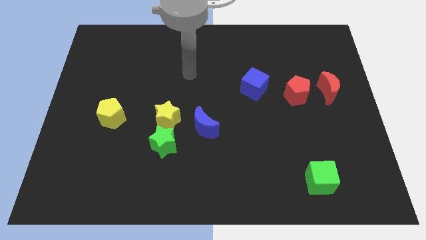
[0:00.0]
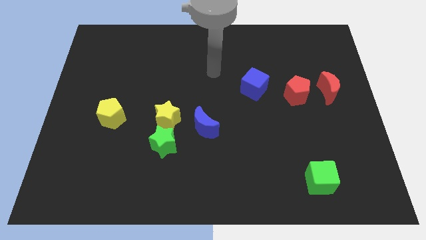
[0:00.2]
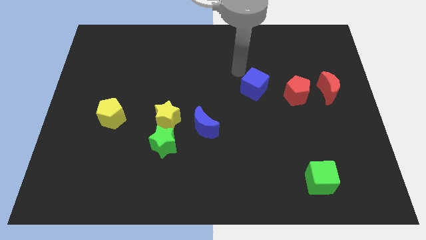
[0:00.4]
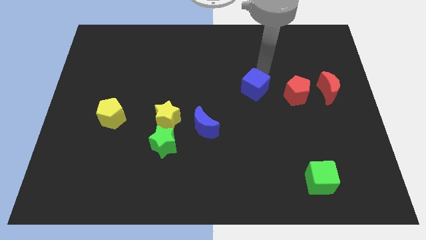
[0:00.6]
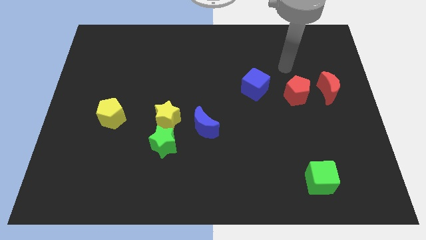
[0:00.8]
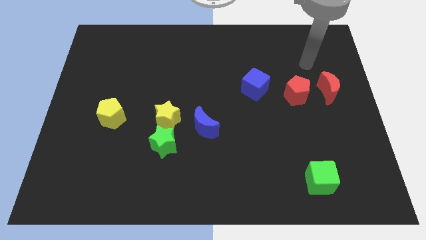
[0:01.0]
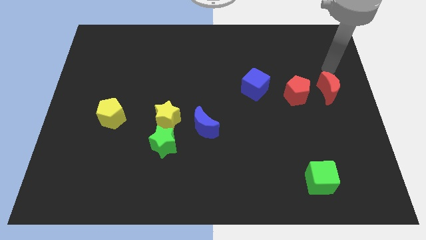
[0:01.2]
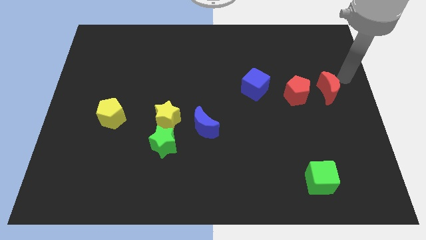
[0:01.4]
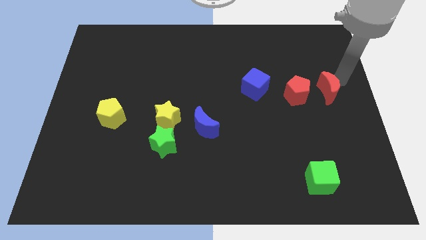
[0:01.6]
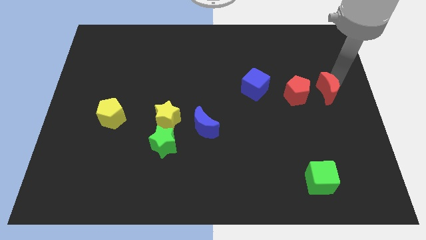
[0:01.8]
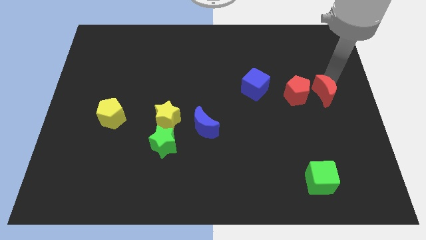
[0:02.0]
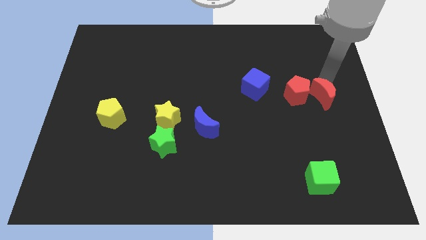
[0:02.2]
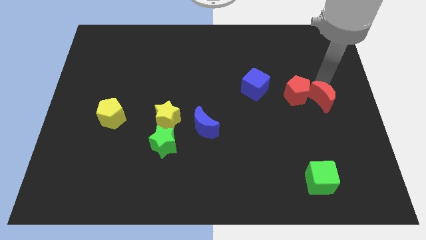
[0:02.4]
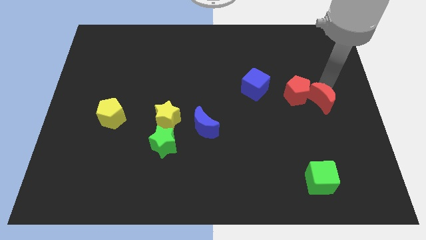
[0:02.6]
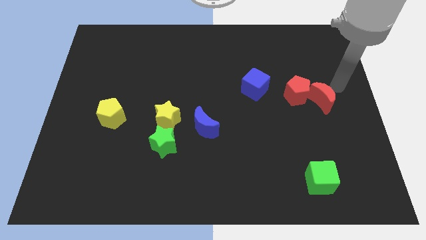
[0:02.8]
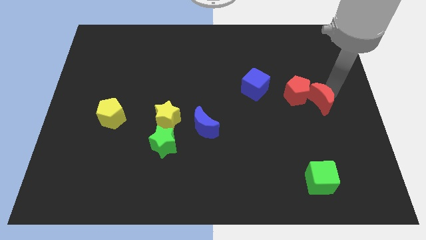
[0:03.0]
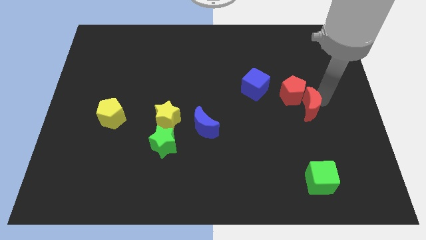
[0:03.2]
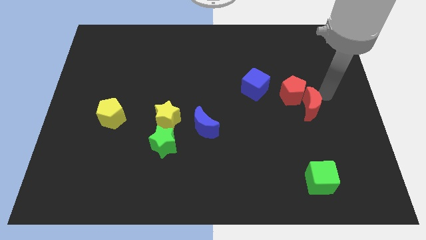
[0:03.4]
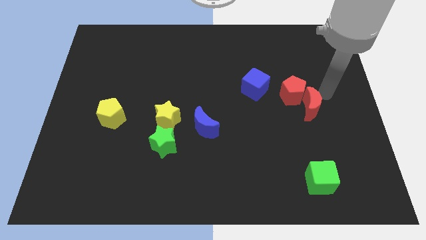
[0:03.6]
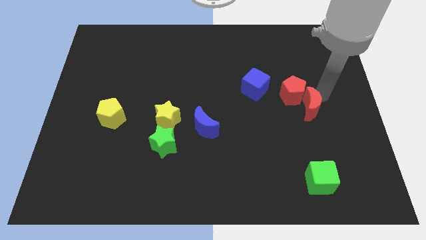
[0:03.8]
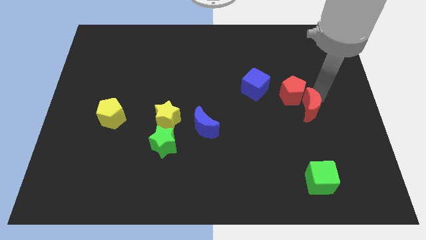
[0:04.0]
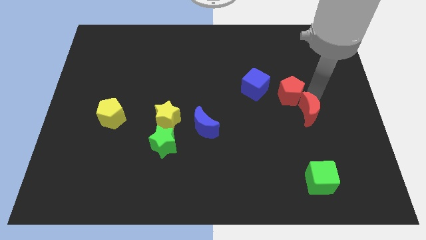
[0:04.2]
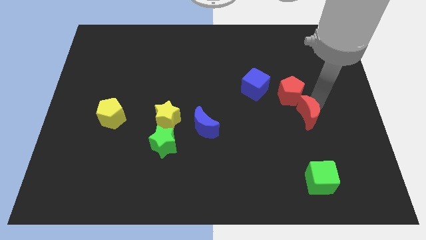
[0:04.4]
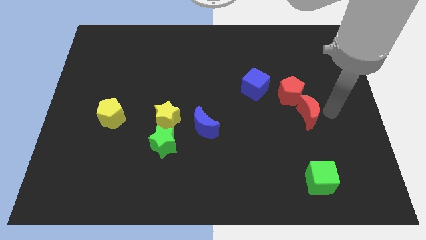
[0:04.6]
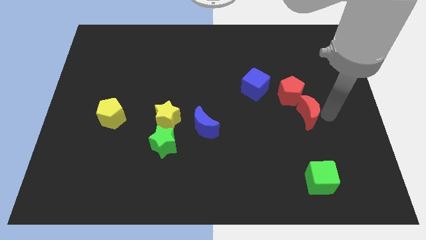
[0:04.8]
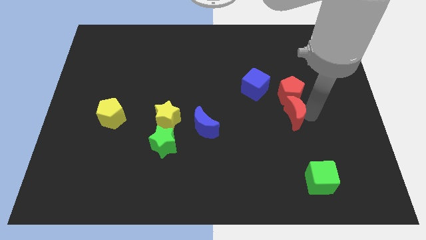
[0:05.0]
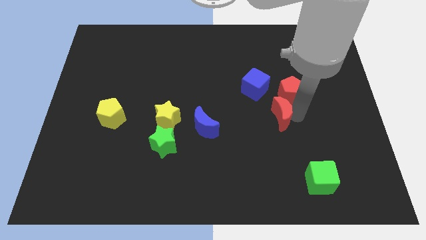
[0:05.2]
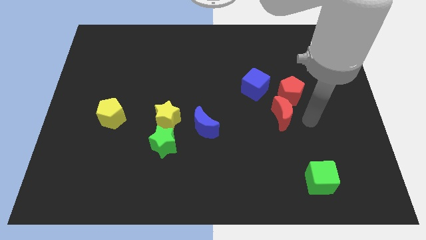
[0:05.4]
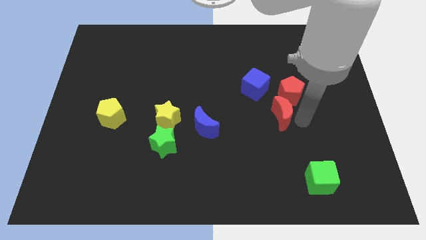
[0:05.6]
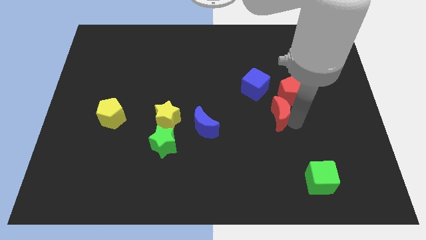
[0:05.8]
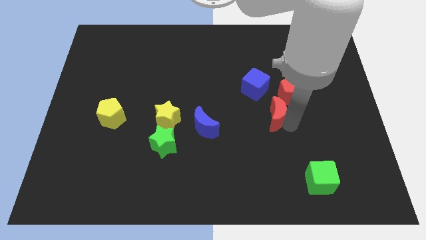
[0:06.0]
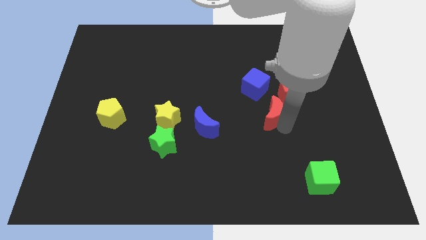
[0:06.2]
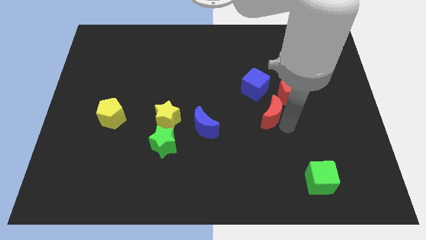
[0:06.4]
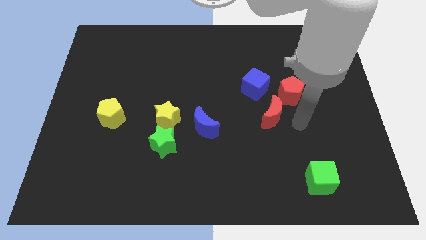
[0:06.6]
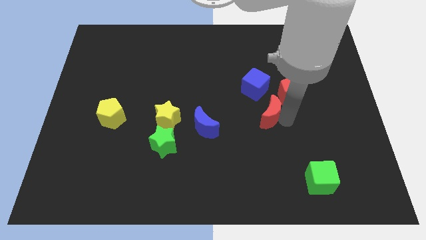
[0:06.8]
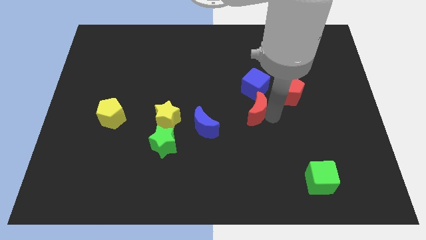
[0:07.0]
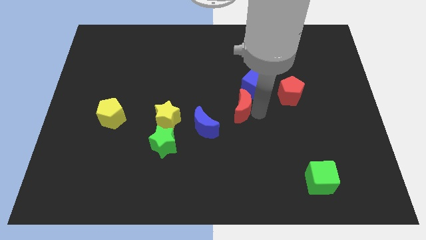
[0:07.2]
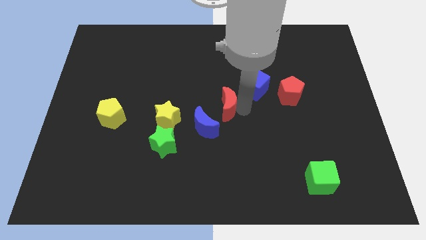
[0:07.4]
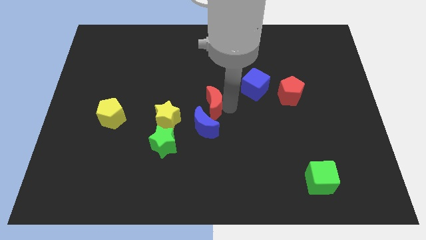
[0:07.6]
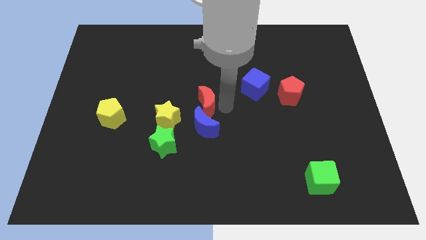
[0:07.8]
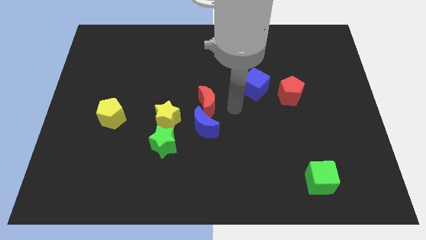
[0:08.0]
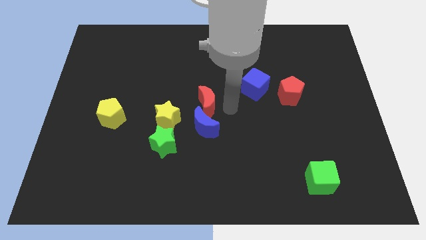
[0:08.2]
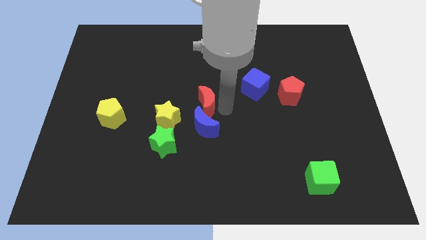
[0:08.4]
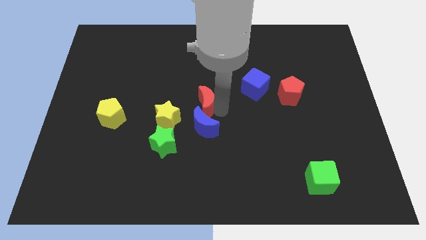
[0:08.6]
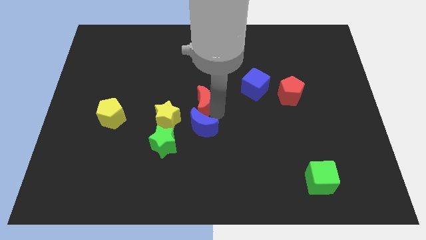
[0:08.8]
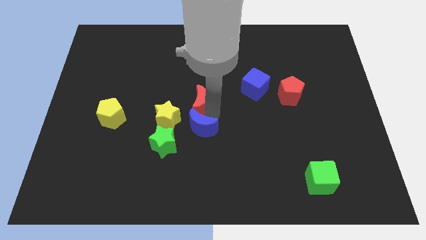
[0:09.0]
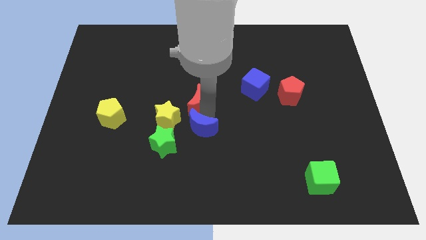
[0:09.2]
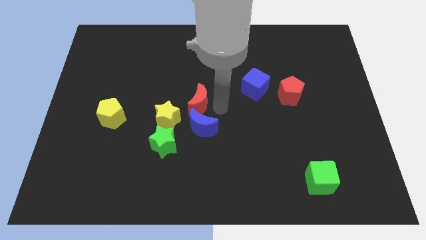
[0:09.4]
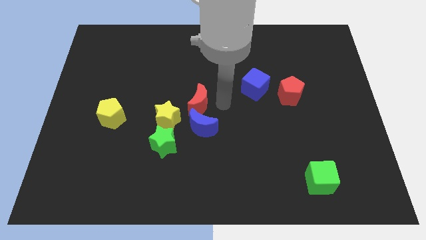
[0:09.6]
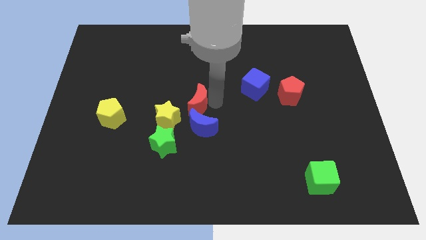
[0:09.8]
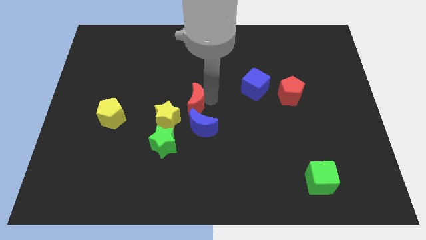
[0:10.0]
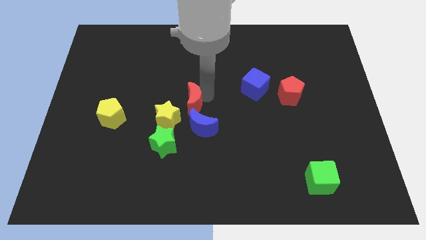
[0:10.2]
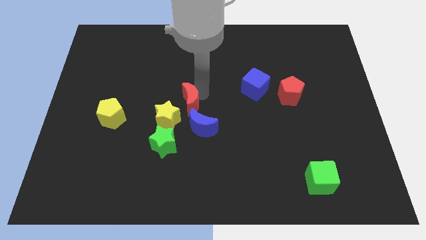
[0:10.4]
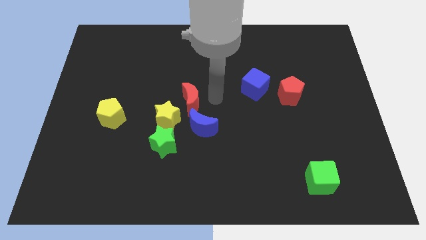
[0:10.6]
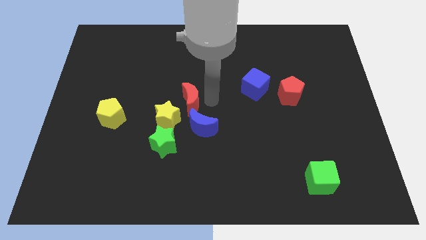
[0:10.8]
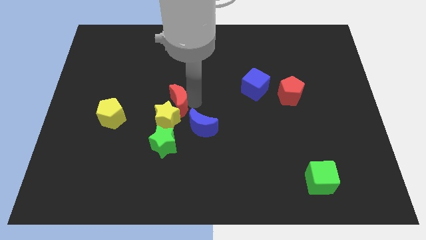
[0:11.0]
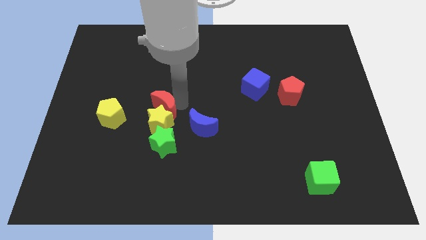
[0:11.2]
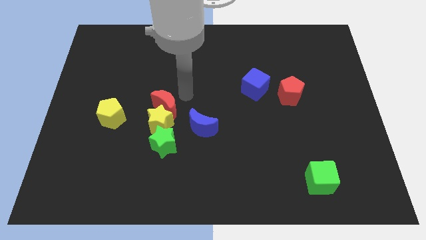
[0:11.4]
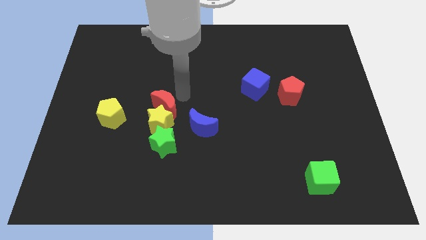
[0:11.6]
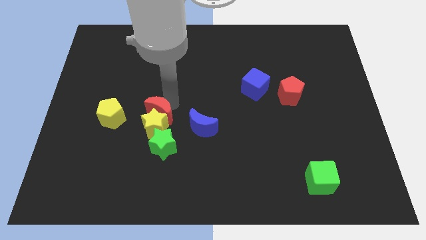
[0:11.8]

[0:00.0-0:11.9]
move the red moon to the left side of the blue moon

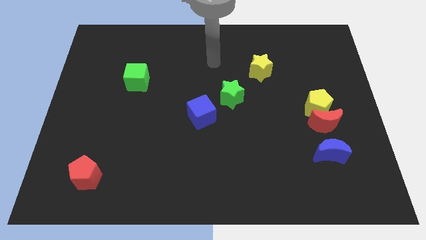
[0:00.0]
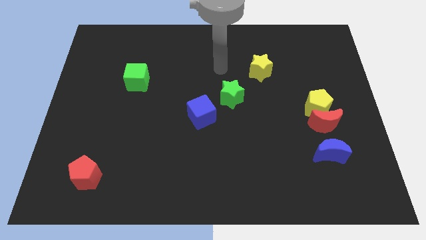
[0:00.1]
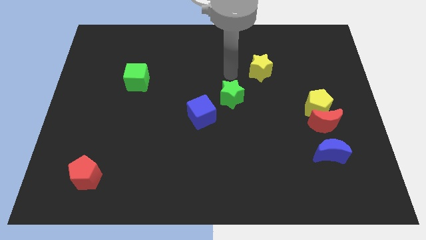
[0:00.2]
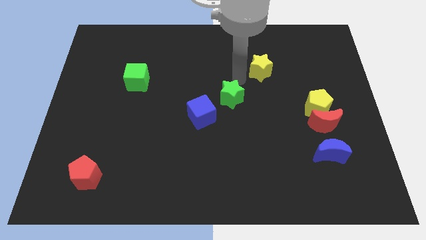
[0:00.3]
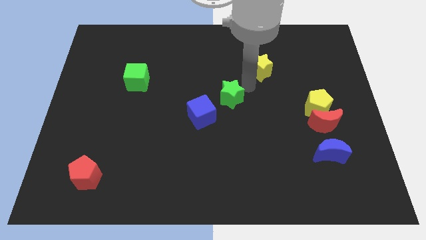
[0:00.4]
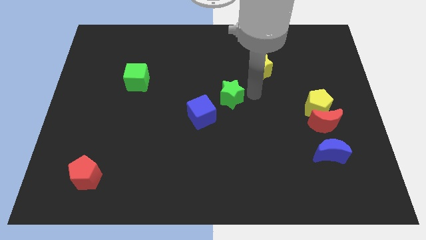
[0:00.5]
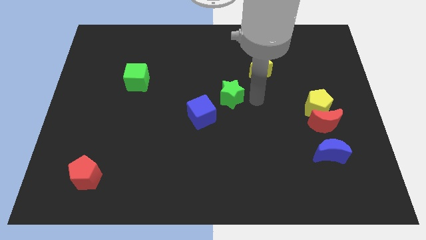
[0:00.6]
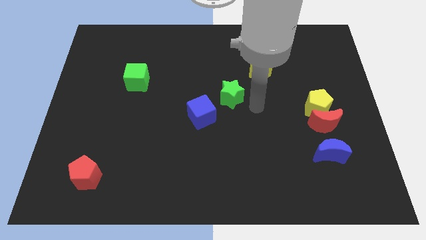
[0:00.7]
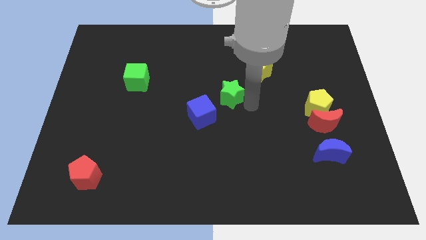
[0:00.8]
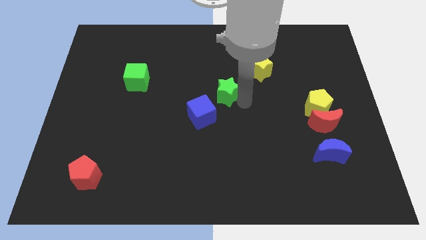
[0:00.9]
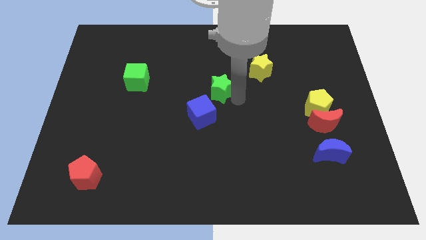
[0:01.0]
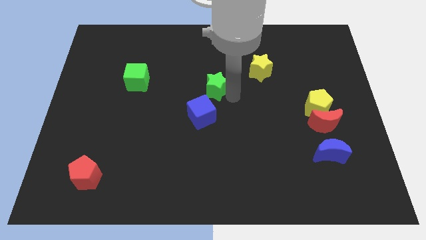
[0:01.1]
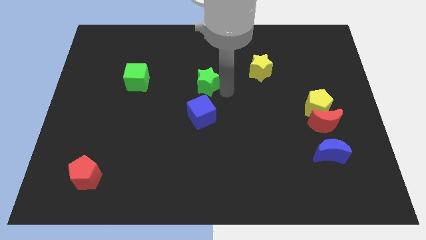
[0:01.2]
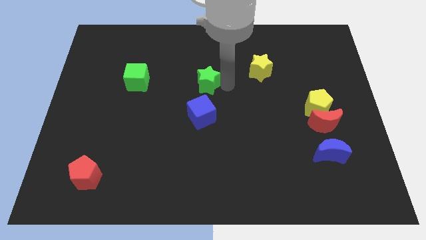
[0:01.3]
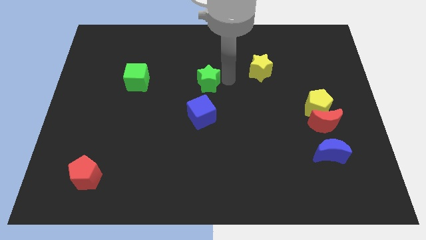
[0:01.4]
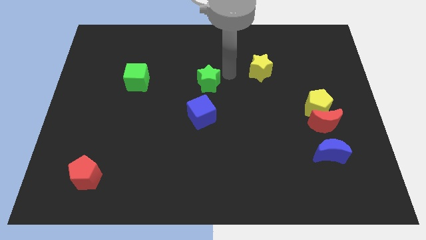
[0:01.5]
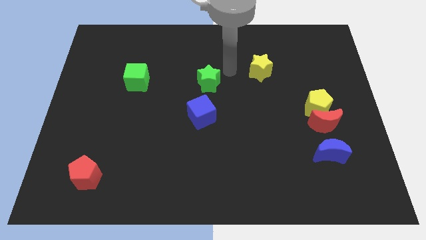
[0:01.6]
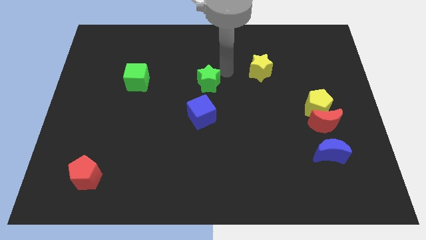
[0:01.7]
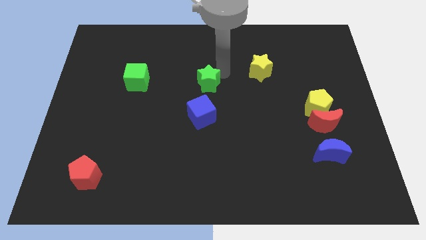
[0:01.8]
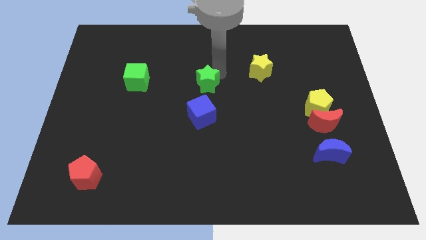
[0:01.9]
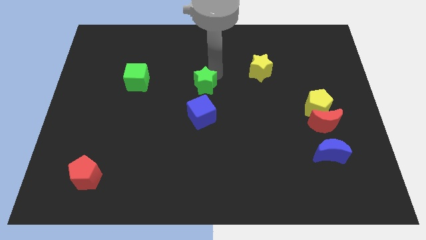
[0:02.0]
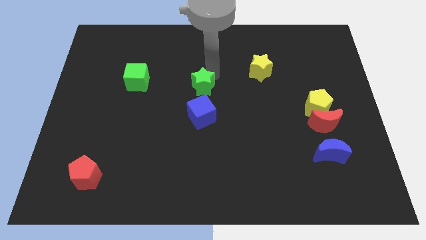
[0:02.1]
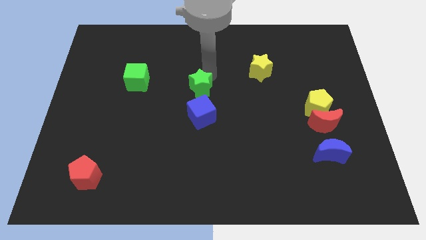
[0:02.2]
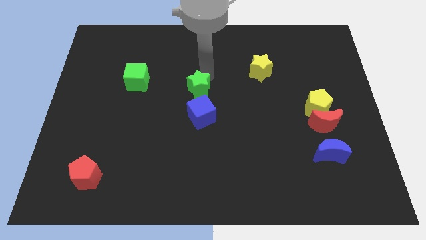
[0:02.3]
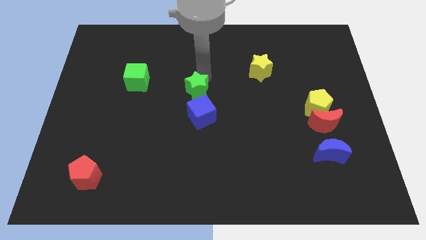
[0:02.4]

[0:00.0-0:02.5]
push the green star to the top left side of the blue cube
